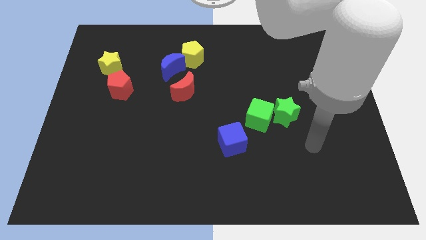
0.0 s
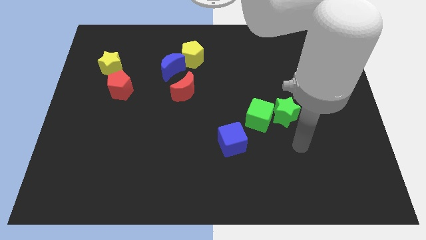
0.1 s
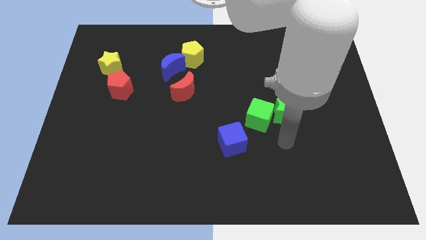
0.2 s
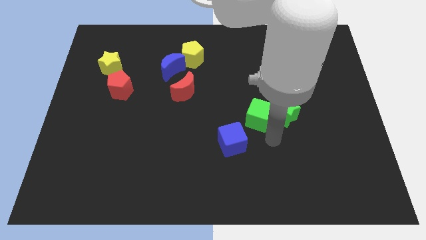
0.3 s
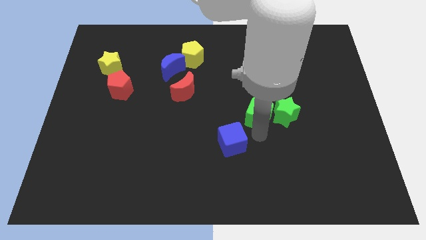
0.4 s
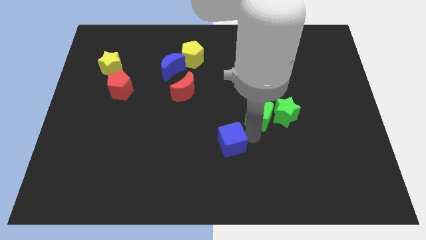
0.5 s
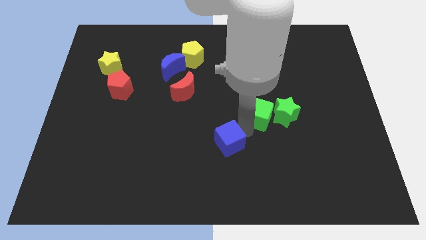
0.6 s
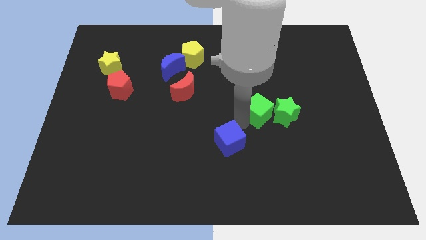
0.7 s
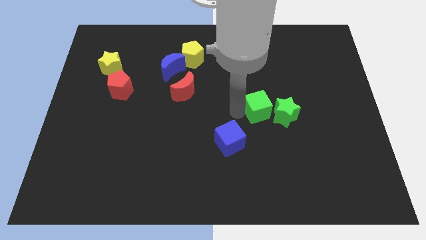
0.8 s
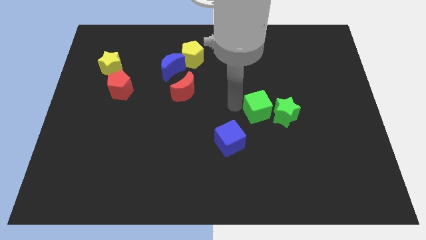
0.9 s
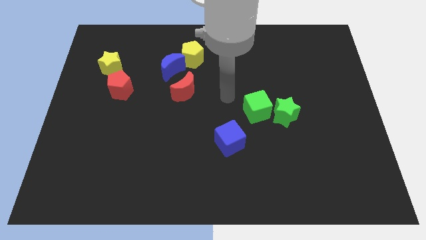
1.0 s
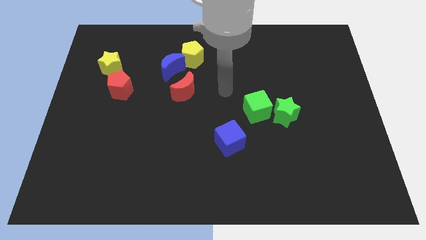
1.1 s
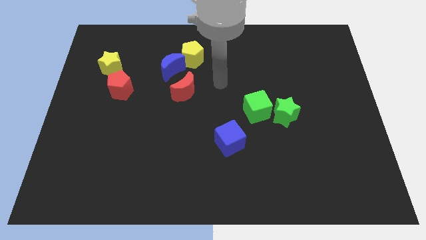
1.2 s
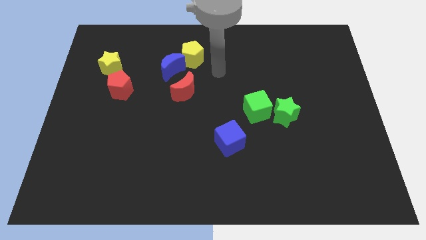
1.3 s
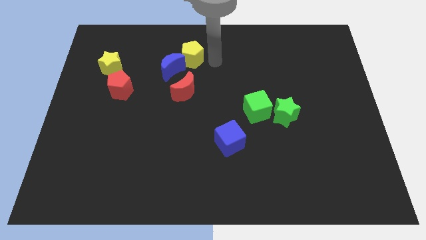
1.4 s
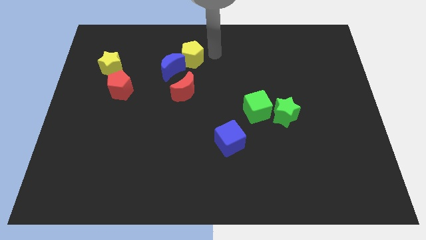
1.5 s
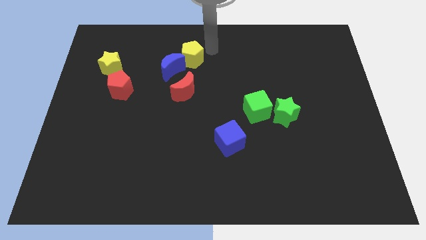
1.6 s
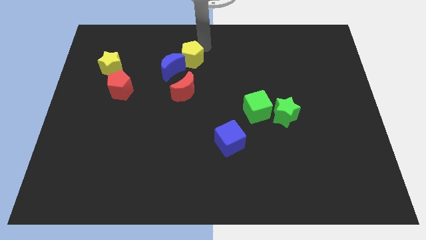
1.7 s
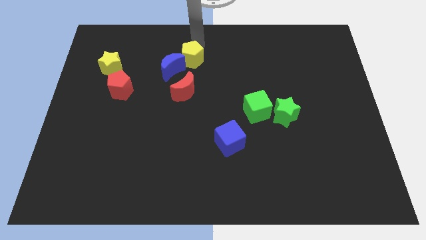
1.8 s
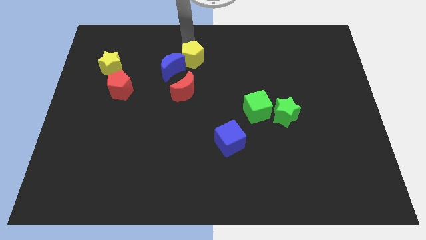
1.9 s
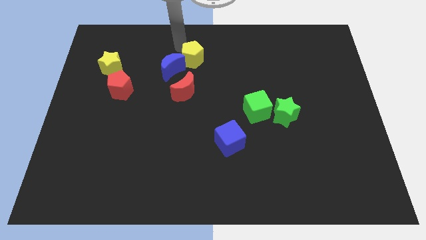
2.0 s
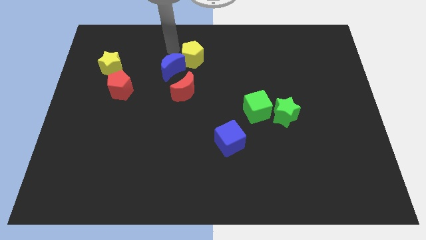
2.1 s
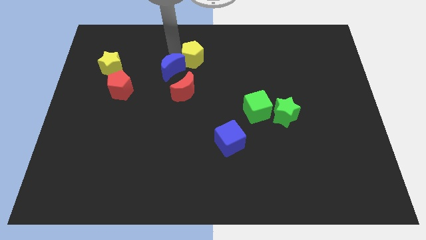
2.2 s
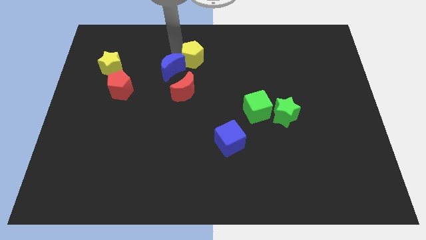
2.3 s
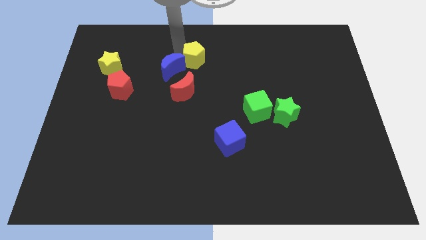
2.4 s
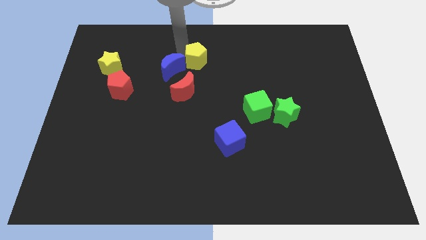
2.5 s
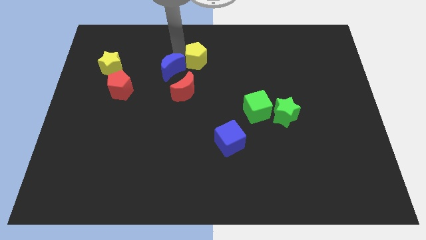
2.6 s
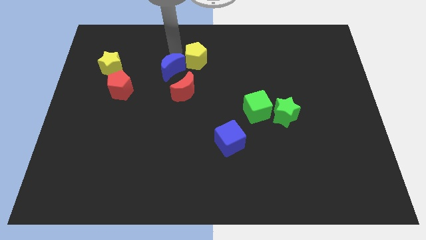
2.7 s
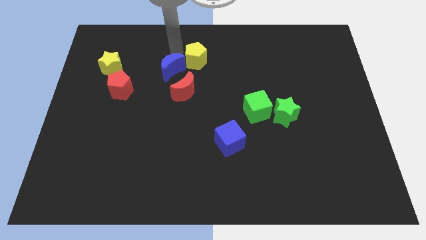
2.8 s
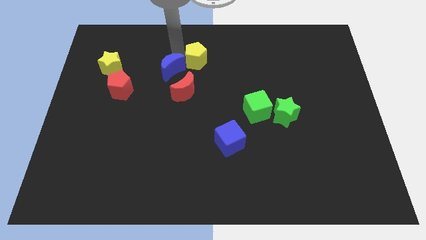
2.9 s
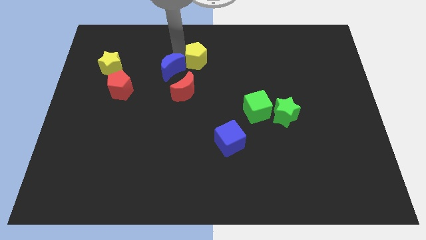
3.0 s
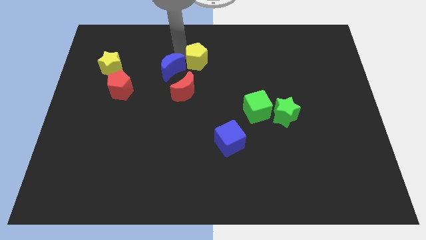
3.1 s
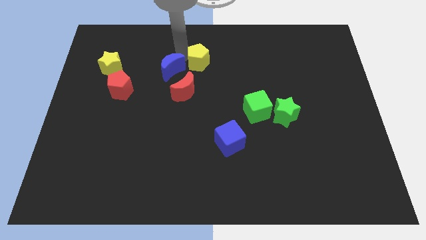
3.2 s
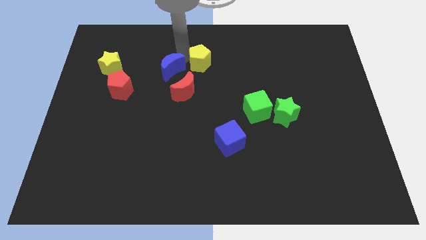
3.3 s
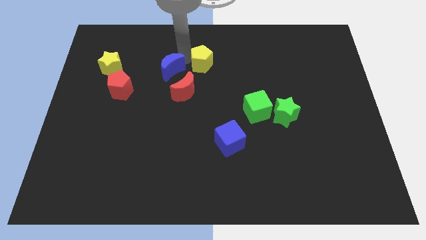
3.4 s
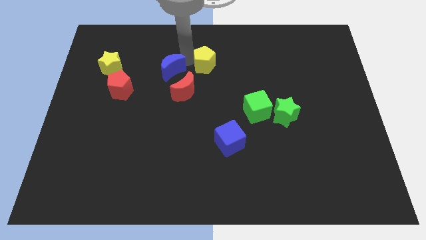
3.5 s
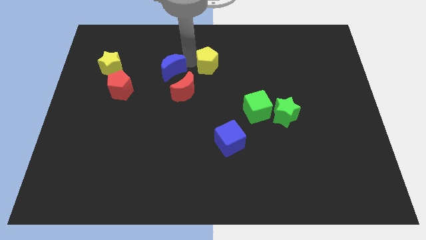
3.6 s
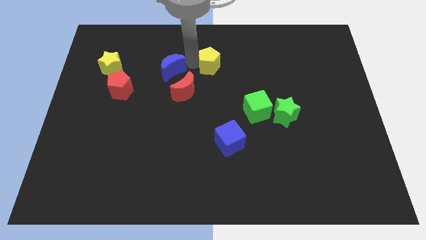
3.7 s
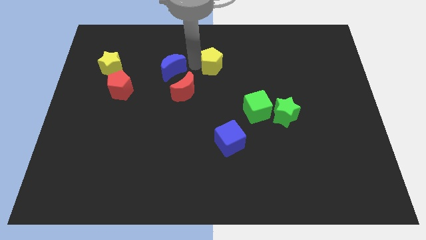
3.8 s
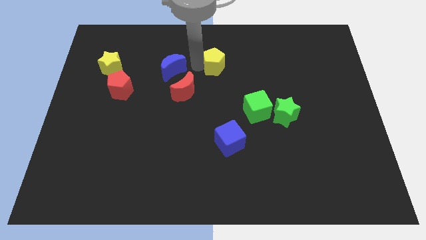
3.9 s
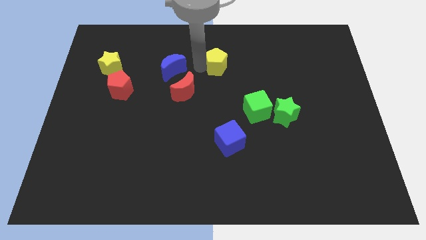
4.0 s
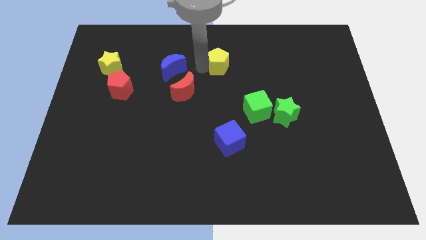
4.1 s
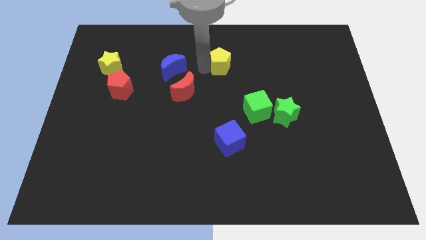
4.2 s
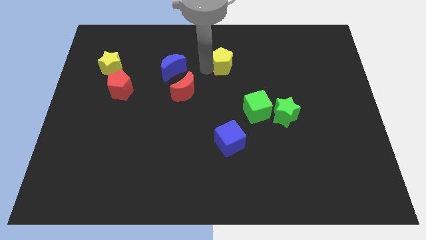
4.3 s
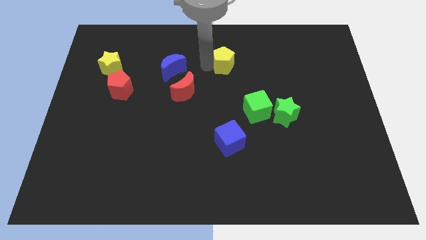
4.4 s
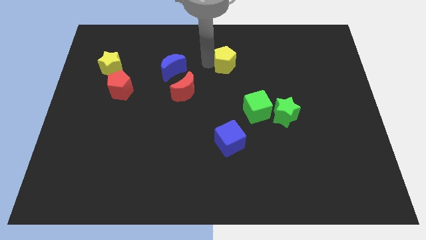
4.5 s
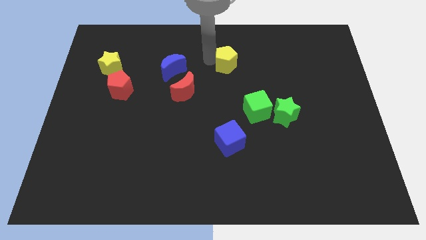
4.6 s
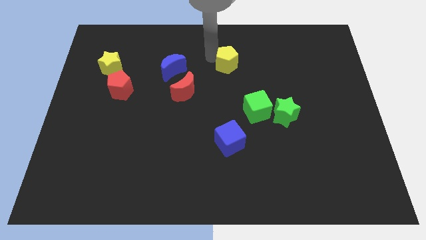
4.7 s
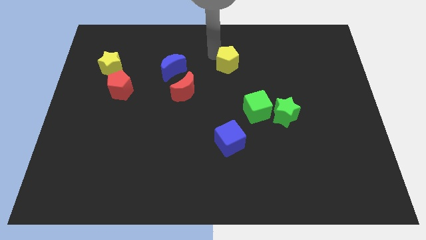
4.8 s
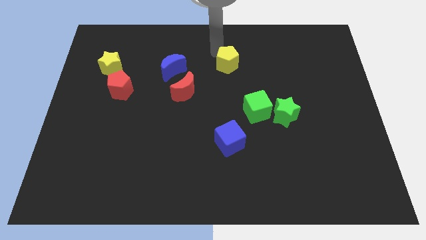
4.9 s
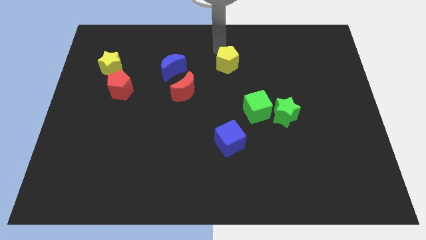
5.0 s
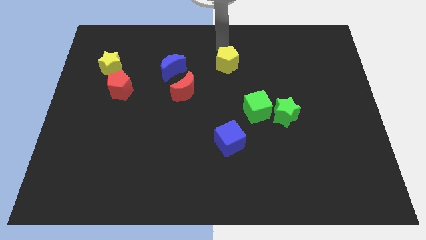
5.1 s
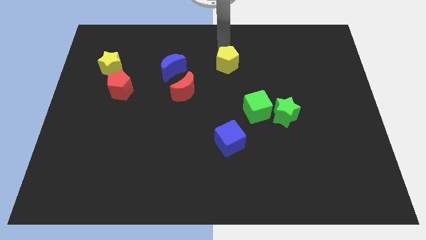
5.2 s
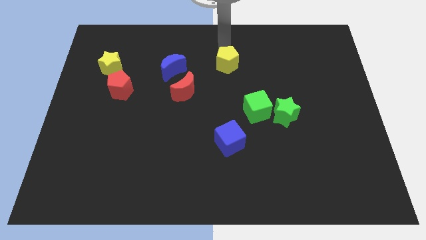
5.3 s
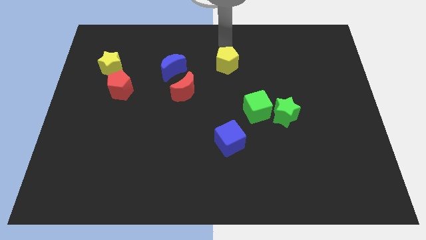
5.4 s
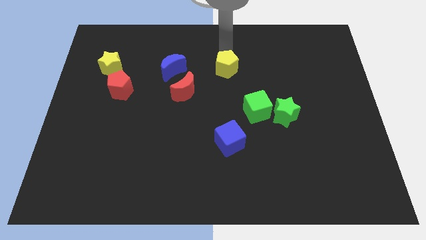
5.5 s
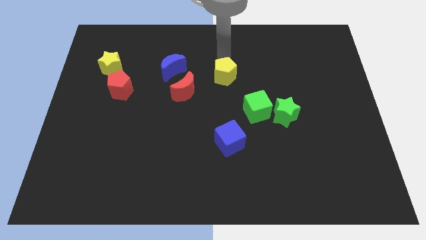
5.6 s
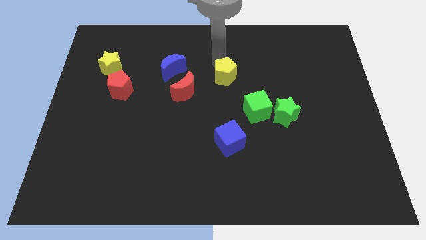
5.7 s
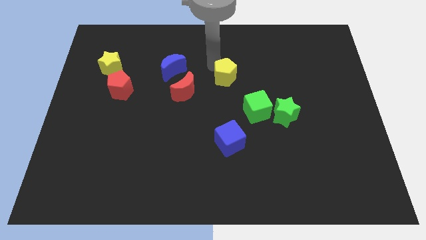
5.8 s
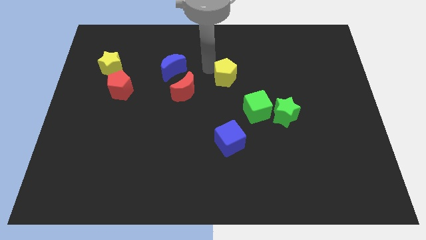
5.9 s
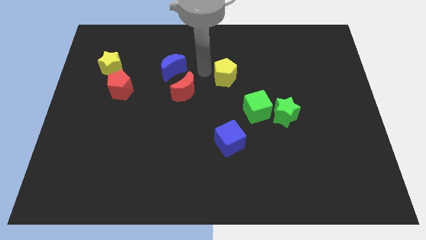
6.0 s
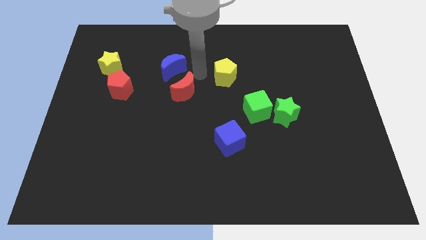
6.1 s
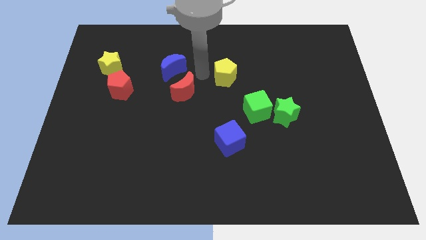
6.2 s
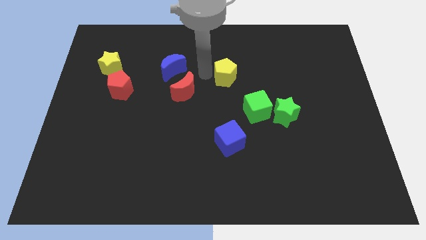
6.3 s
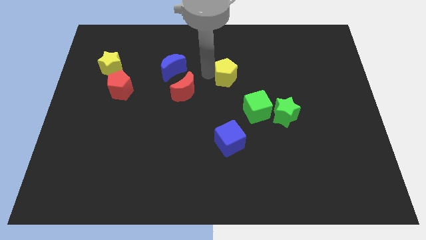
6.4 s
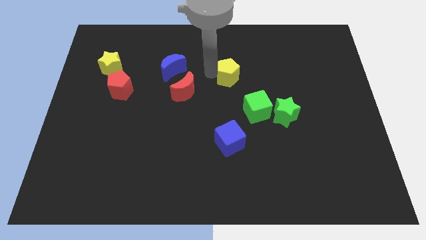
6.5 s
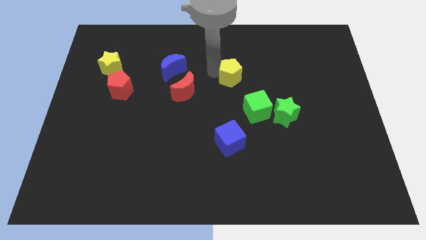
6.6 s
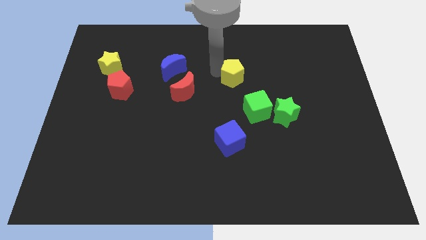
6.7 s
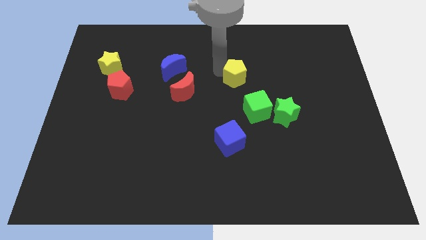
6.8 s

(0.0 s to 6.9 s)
push the yellow pentagon to the top of the green cube
